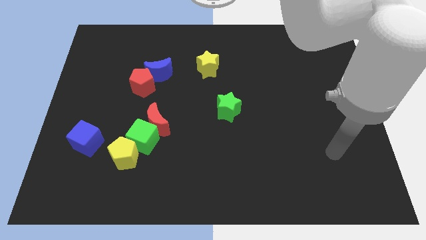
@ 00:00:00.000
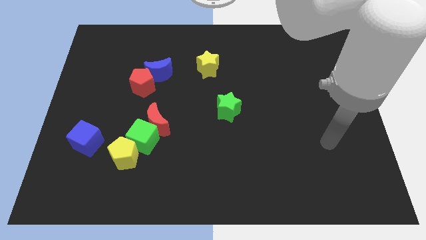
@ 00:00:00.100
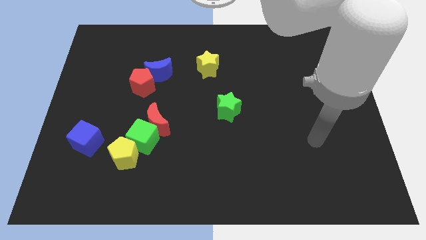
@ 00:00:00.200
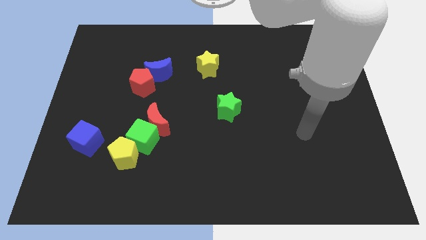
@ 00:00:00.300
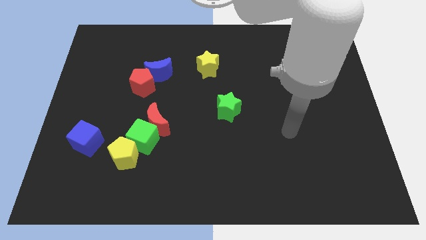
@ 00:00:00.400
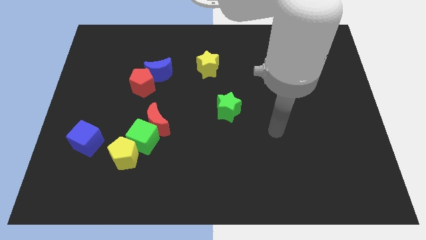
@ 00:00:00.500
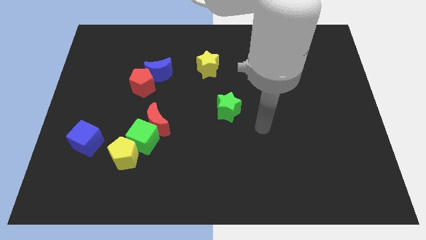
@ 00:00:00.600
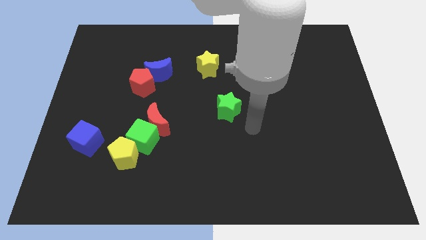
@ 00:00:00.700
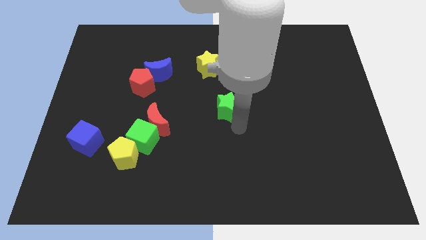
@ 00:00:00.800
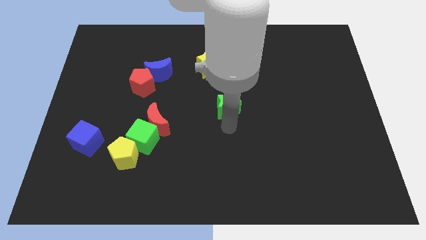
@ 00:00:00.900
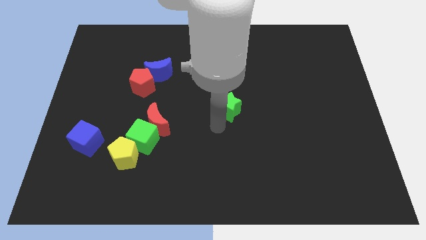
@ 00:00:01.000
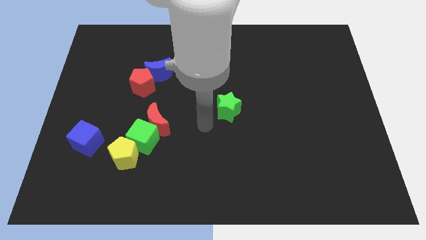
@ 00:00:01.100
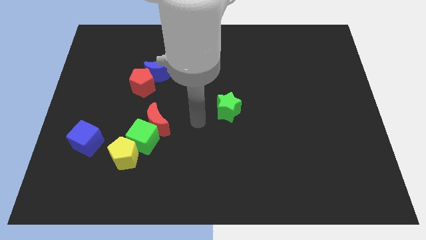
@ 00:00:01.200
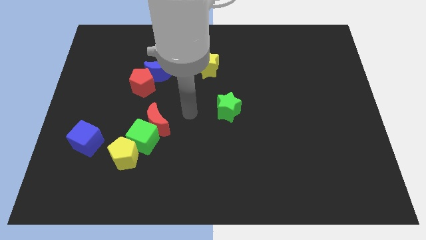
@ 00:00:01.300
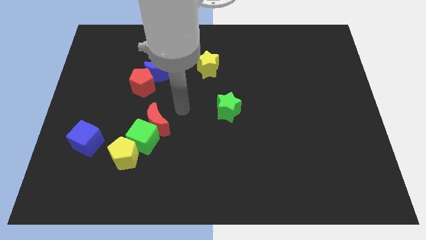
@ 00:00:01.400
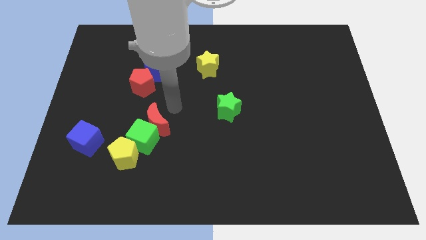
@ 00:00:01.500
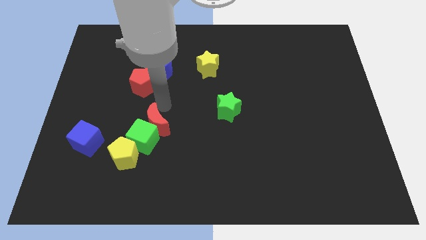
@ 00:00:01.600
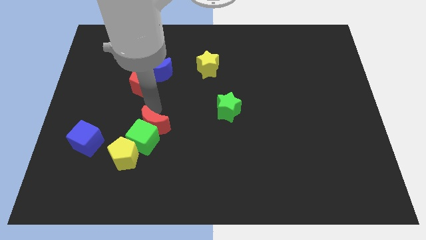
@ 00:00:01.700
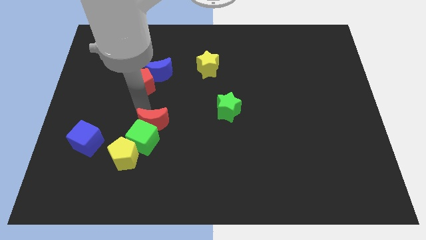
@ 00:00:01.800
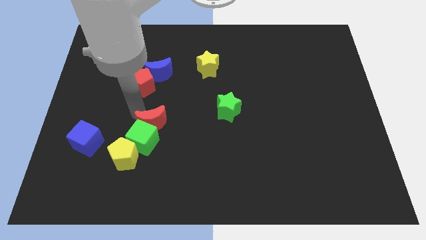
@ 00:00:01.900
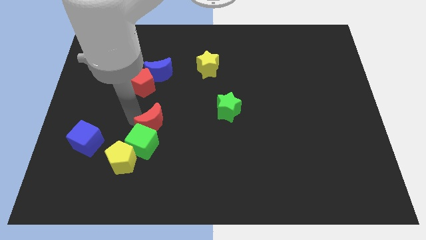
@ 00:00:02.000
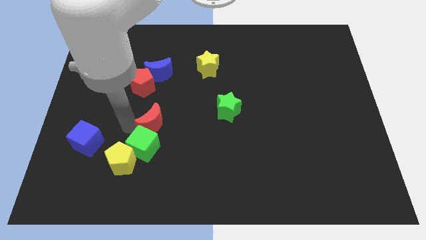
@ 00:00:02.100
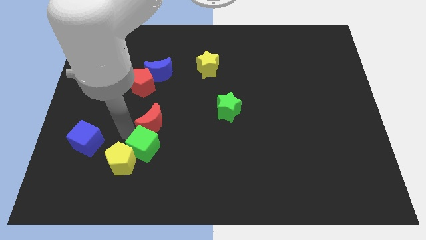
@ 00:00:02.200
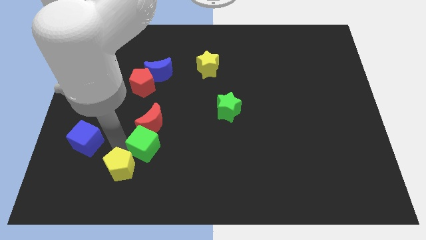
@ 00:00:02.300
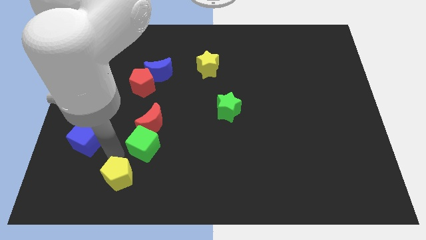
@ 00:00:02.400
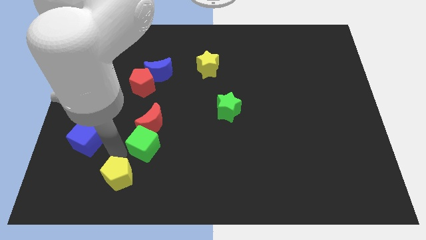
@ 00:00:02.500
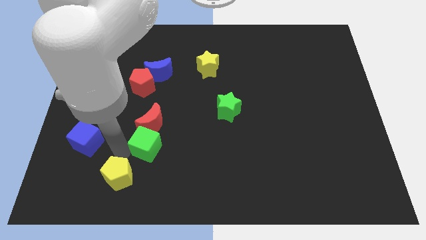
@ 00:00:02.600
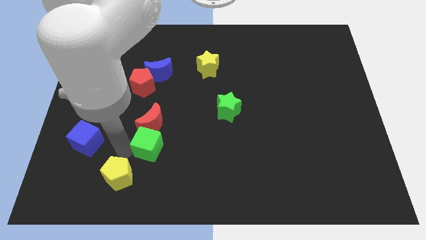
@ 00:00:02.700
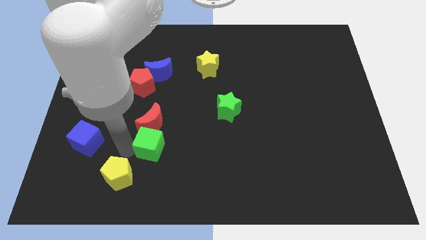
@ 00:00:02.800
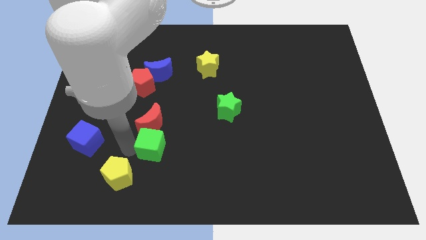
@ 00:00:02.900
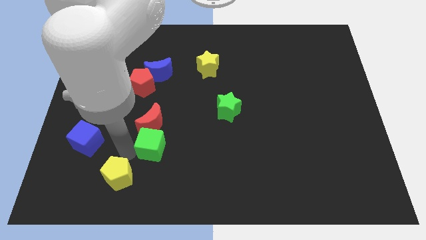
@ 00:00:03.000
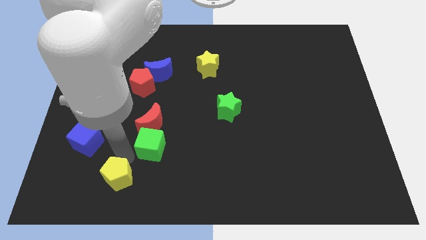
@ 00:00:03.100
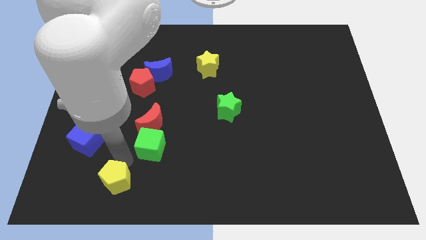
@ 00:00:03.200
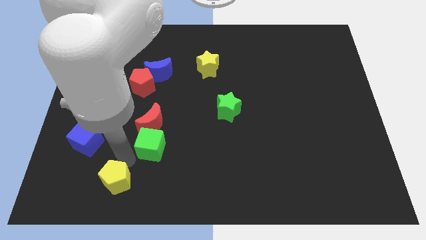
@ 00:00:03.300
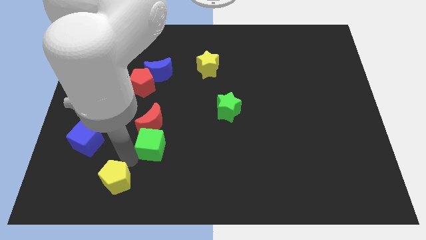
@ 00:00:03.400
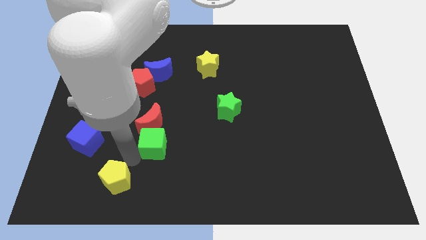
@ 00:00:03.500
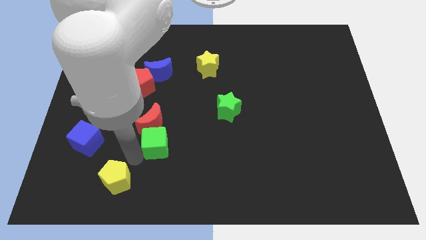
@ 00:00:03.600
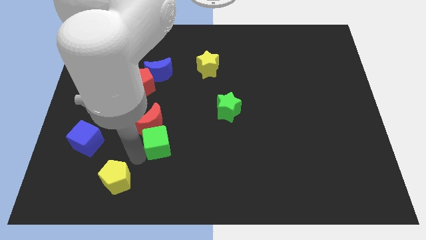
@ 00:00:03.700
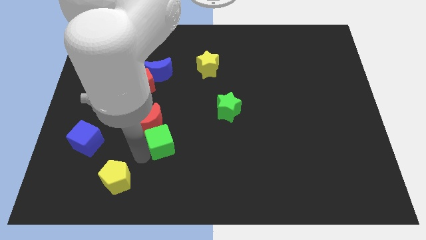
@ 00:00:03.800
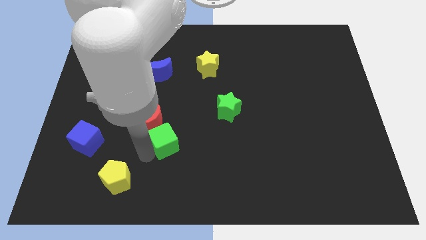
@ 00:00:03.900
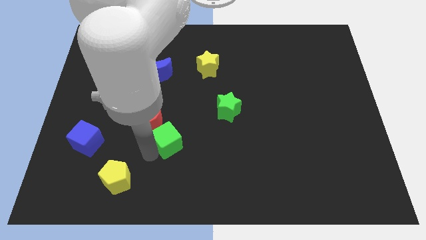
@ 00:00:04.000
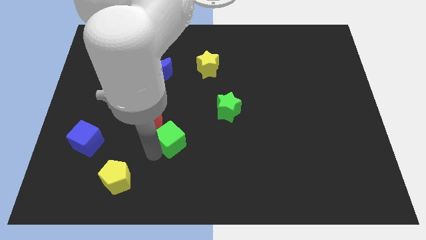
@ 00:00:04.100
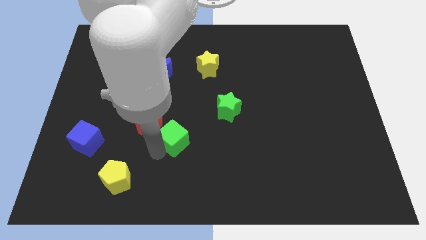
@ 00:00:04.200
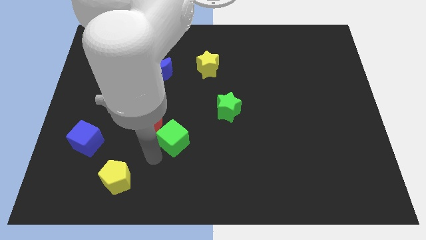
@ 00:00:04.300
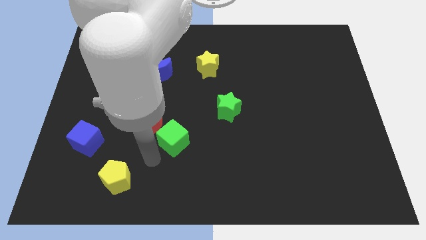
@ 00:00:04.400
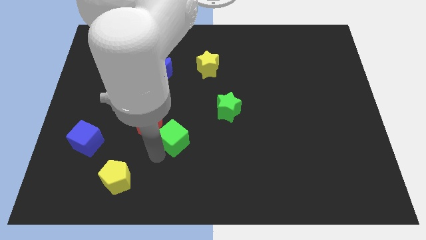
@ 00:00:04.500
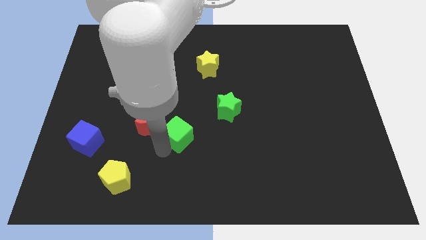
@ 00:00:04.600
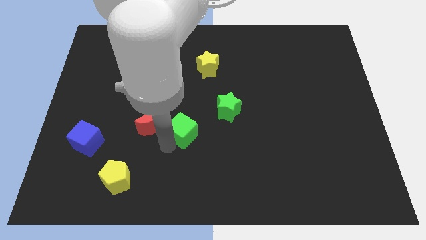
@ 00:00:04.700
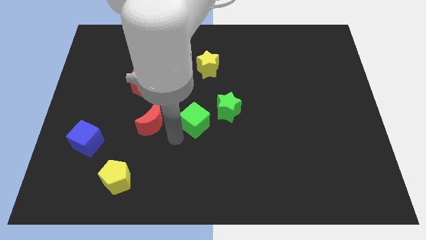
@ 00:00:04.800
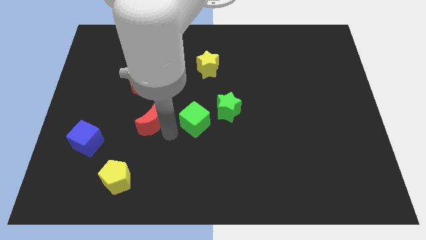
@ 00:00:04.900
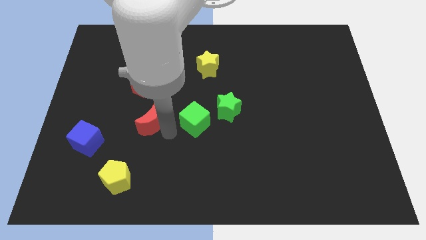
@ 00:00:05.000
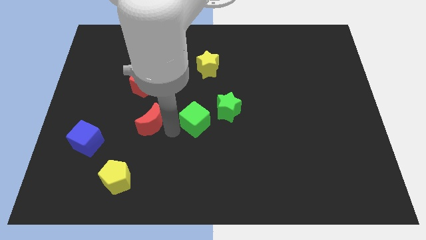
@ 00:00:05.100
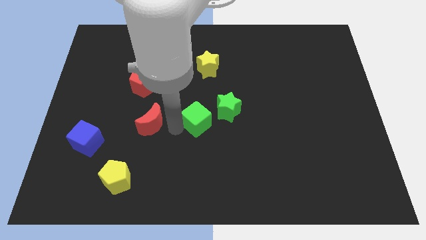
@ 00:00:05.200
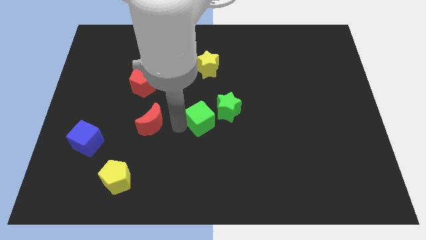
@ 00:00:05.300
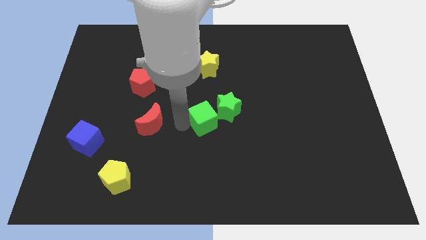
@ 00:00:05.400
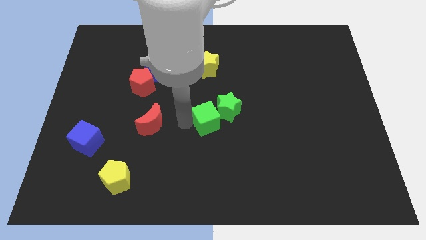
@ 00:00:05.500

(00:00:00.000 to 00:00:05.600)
put the green cube to the green star
